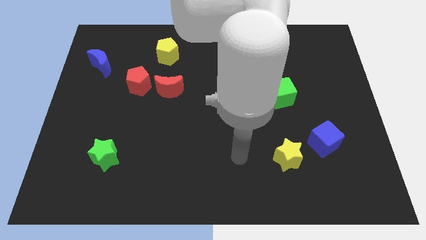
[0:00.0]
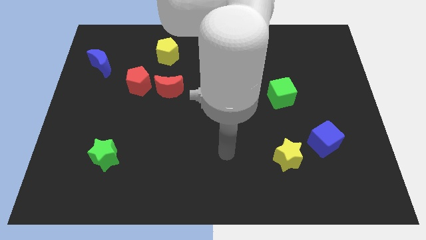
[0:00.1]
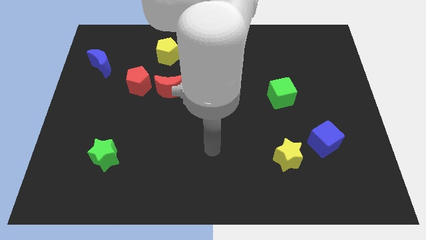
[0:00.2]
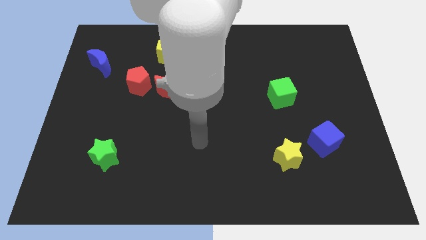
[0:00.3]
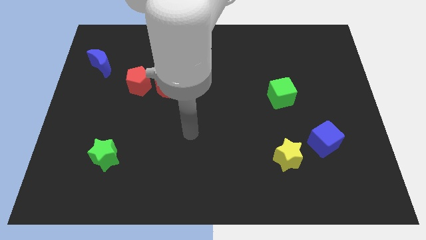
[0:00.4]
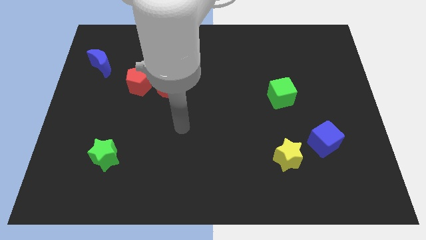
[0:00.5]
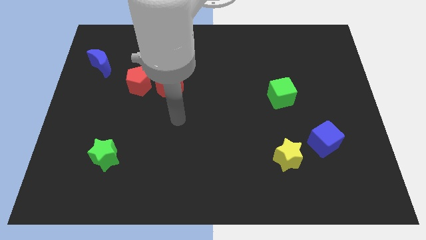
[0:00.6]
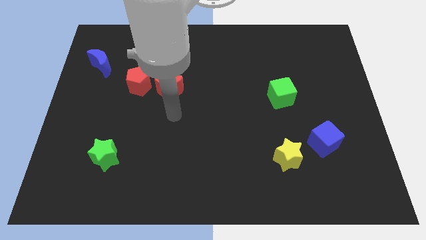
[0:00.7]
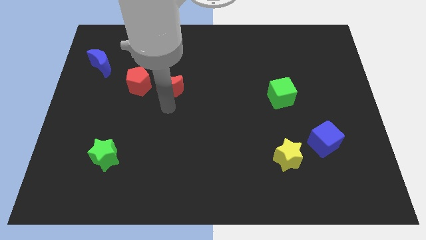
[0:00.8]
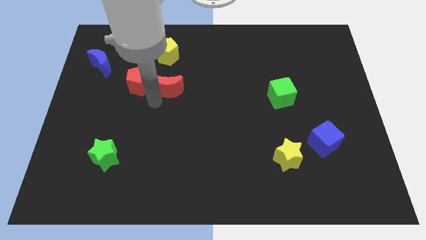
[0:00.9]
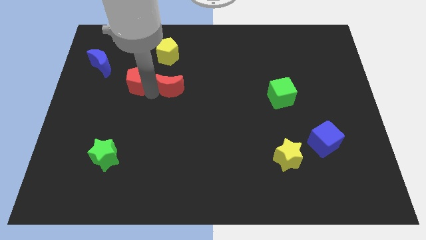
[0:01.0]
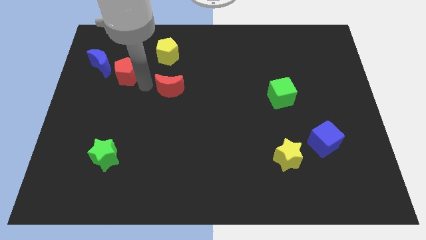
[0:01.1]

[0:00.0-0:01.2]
separate the red moon from the red pentagon

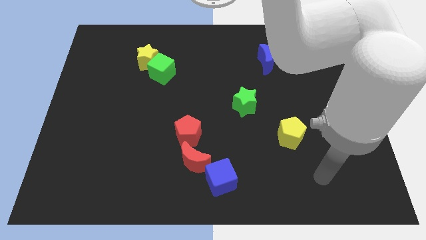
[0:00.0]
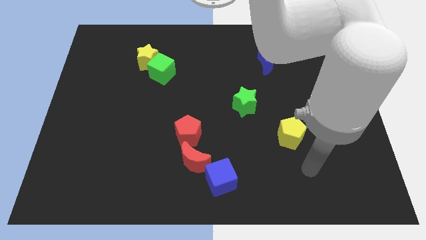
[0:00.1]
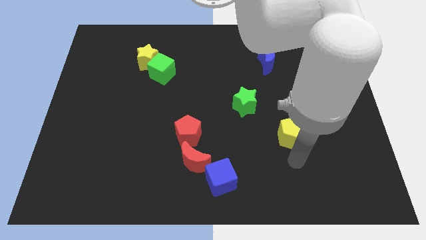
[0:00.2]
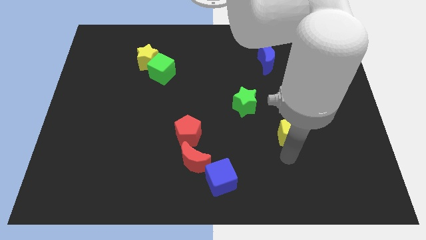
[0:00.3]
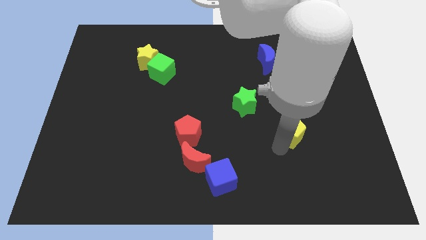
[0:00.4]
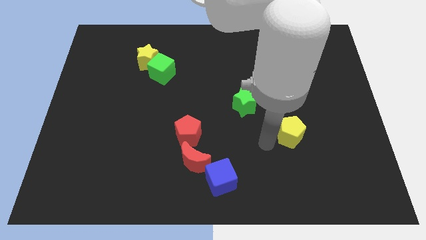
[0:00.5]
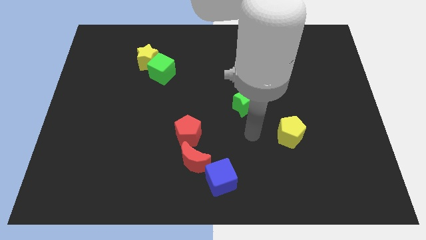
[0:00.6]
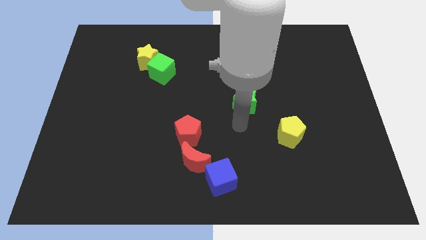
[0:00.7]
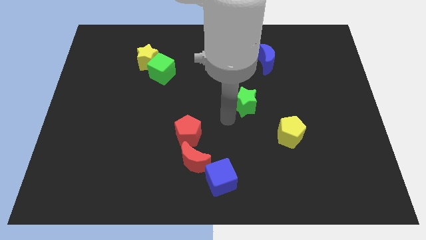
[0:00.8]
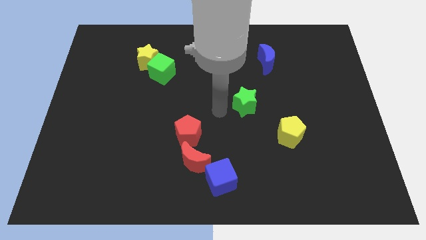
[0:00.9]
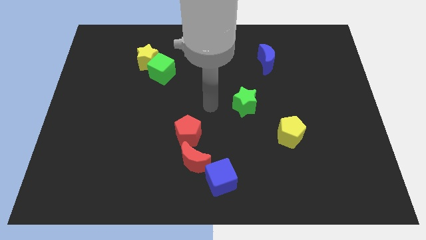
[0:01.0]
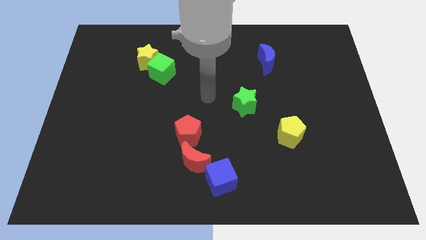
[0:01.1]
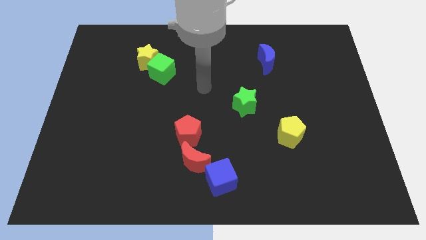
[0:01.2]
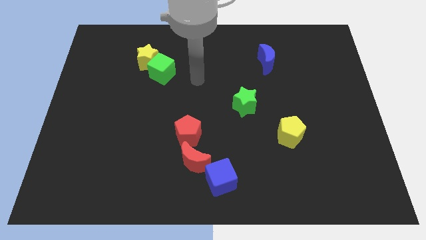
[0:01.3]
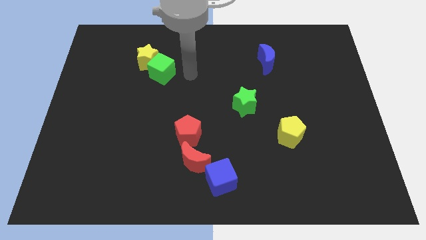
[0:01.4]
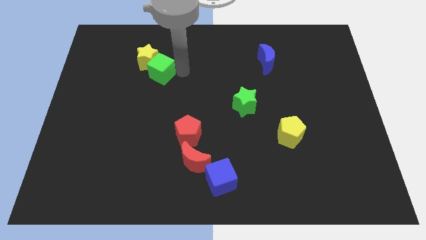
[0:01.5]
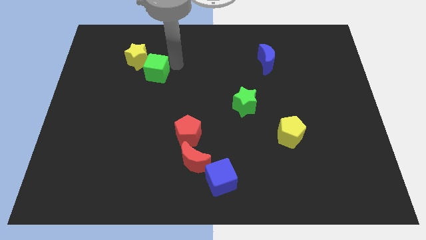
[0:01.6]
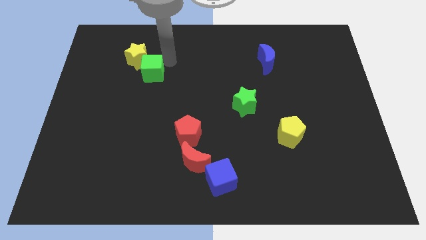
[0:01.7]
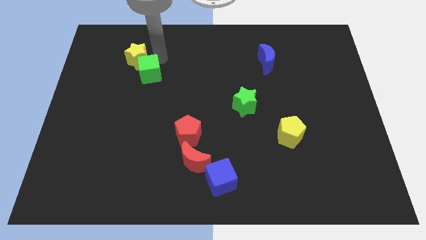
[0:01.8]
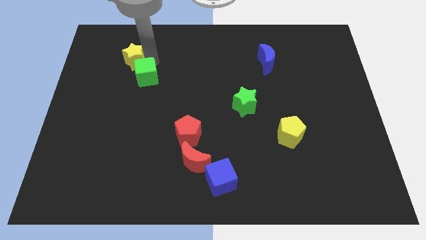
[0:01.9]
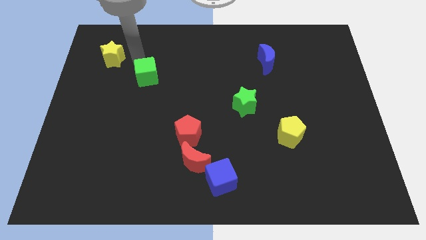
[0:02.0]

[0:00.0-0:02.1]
pull the green cube apart from the yellow star

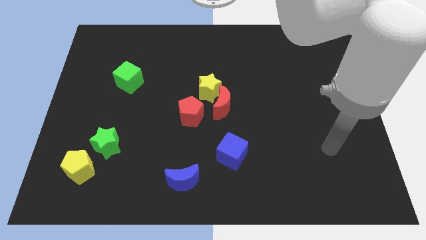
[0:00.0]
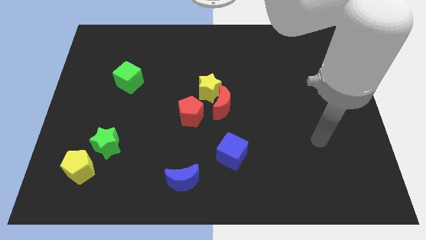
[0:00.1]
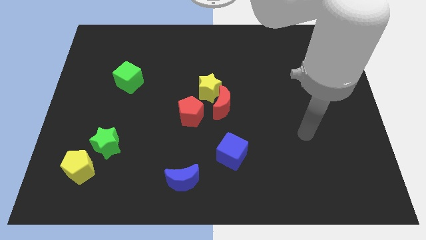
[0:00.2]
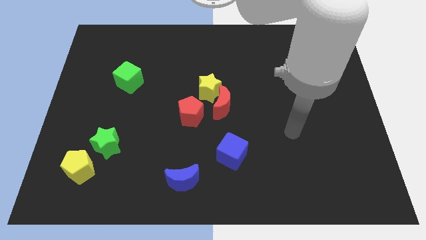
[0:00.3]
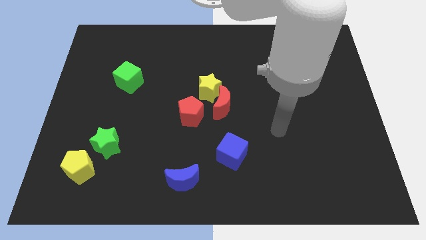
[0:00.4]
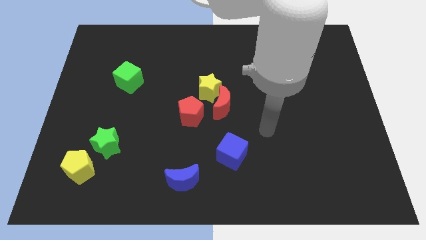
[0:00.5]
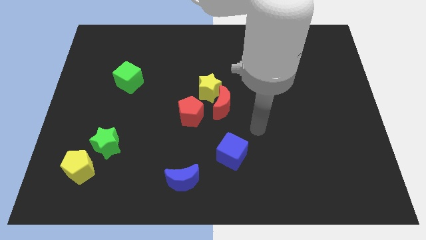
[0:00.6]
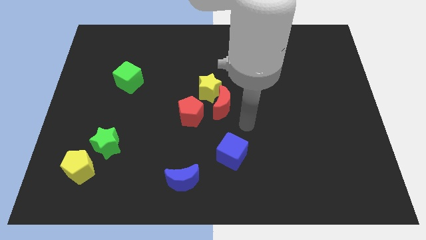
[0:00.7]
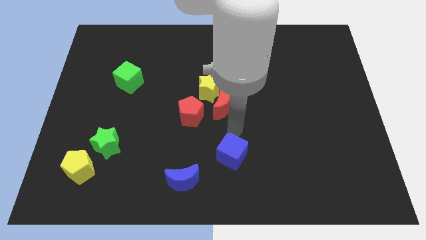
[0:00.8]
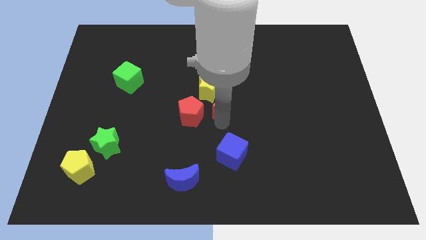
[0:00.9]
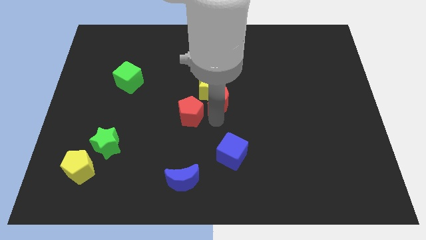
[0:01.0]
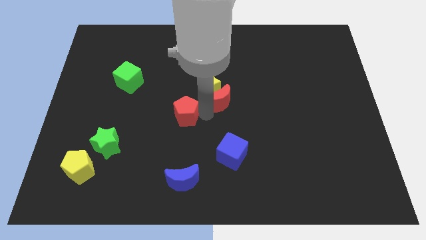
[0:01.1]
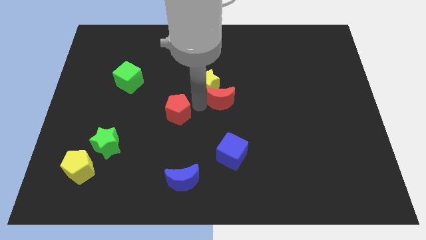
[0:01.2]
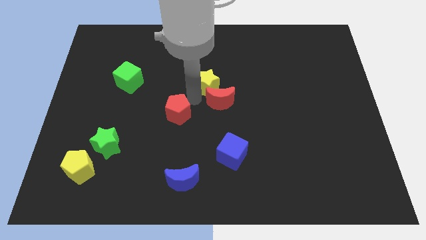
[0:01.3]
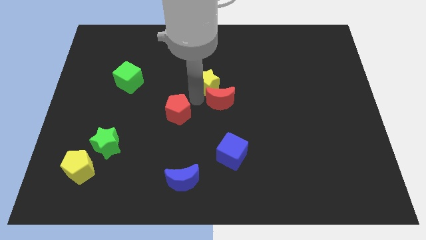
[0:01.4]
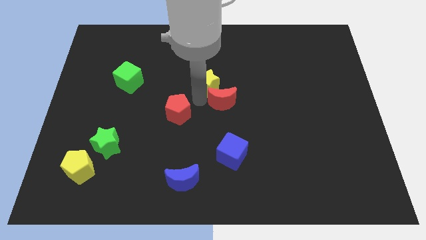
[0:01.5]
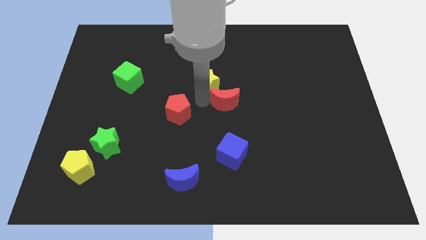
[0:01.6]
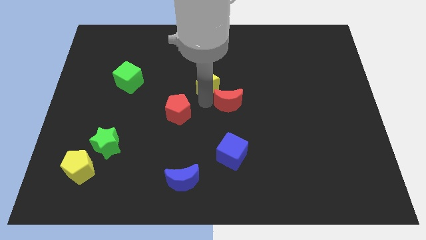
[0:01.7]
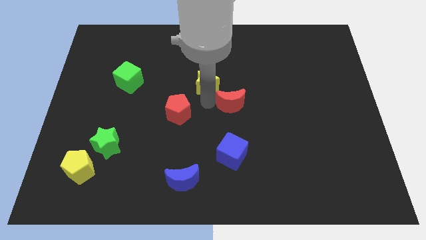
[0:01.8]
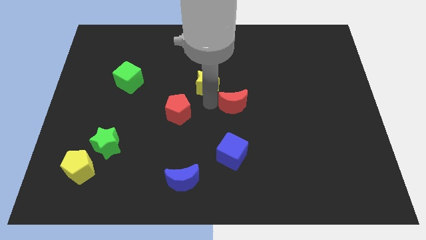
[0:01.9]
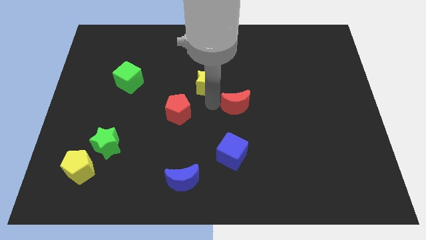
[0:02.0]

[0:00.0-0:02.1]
pull the red moon apart from the yellow star and red pentagon

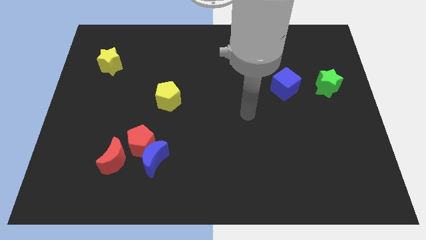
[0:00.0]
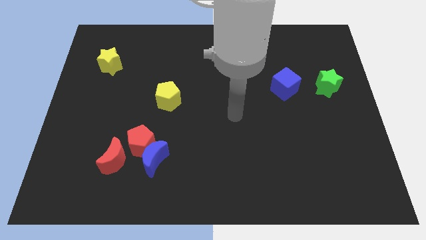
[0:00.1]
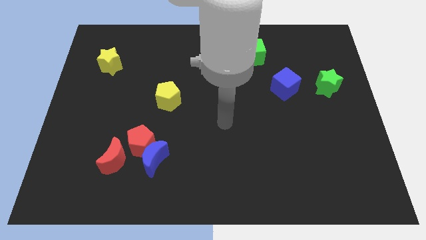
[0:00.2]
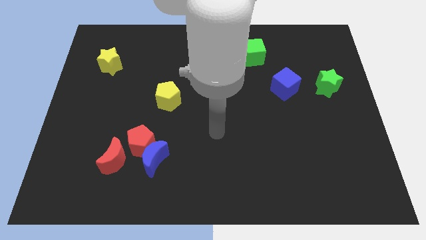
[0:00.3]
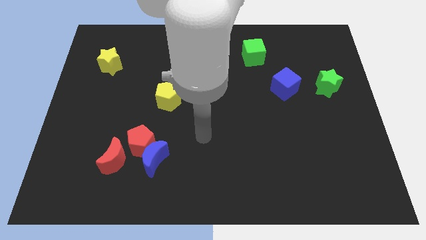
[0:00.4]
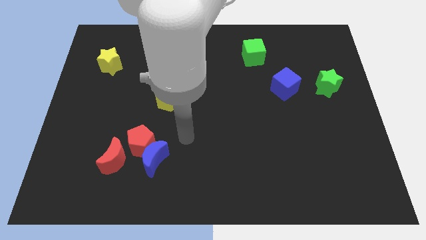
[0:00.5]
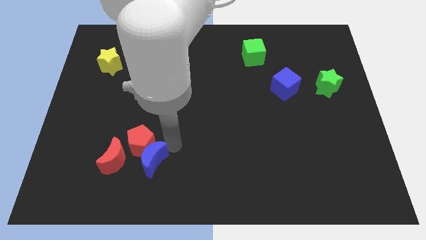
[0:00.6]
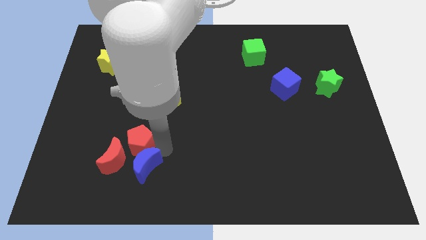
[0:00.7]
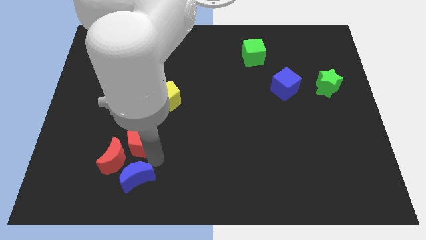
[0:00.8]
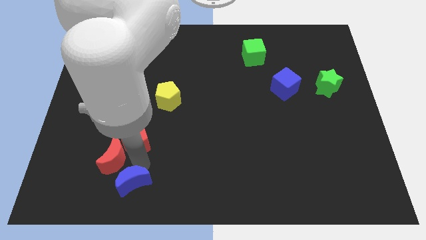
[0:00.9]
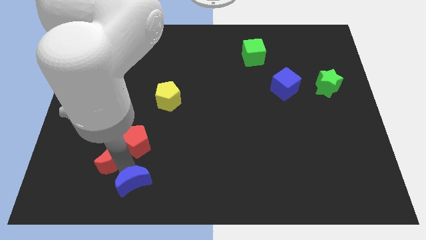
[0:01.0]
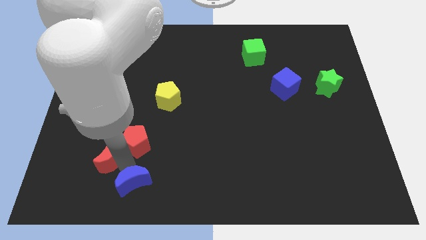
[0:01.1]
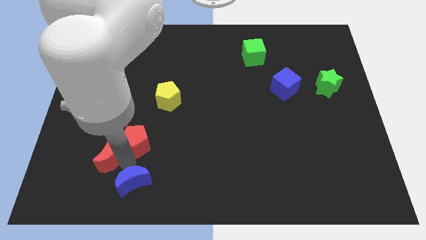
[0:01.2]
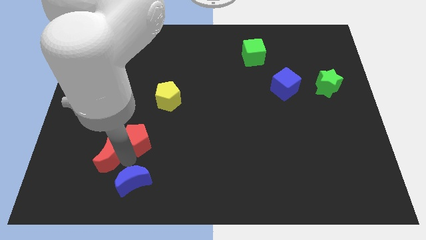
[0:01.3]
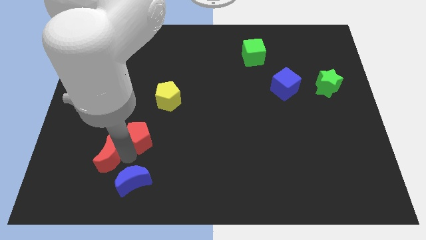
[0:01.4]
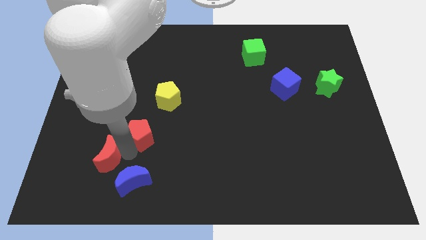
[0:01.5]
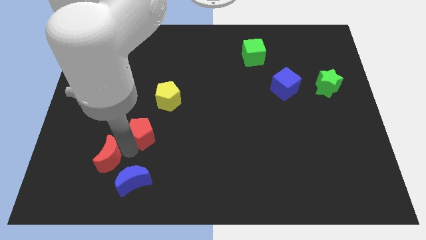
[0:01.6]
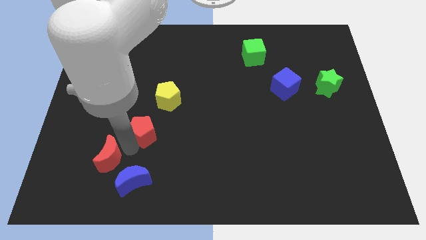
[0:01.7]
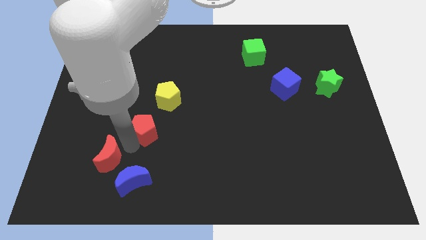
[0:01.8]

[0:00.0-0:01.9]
move the red pentagon away from the blue moon and red moon

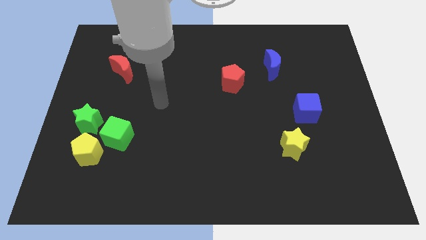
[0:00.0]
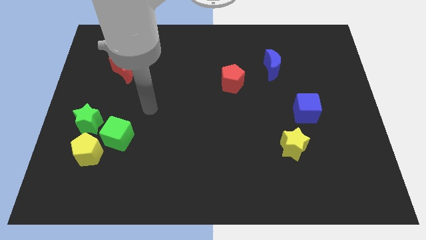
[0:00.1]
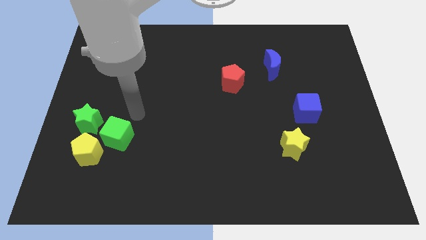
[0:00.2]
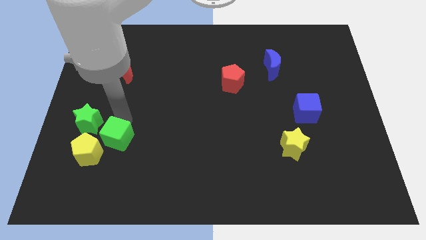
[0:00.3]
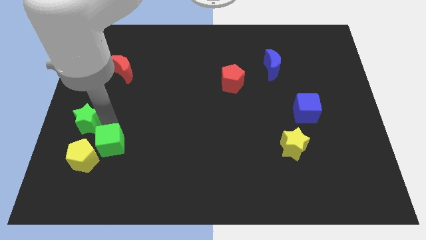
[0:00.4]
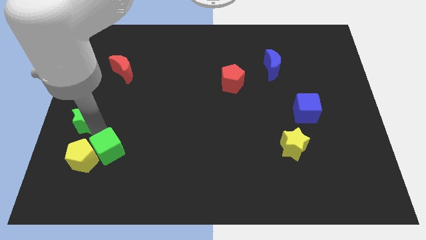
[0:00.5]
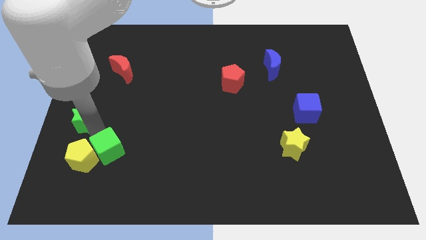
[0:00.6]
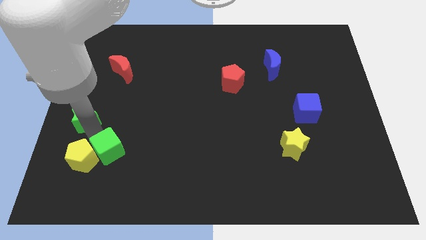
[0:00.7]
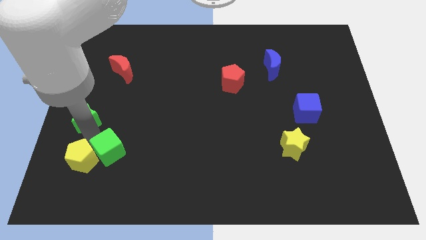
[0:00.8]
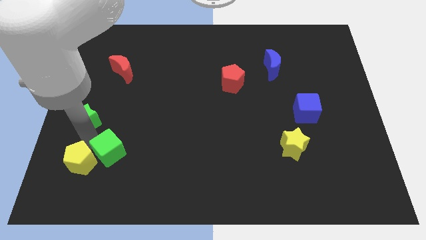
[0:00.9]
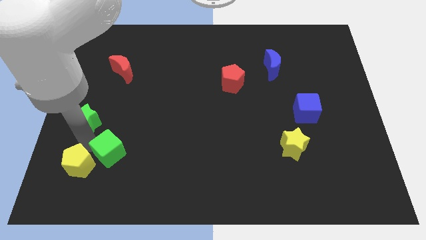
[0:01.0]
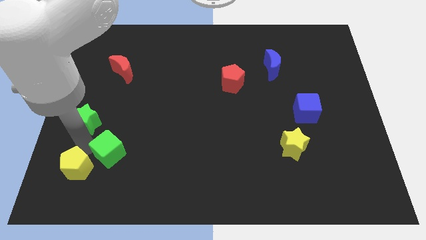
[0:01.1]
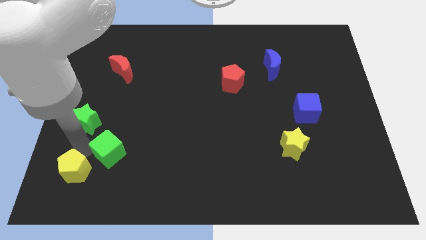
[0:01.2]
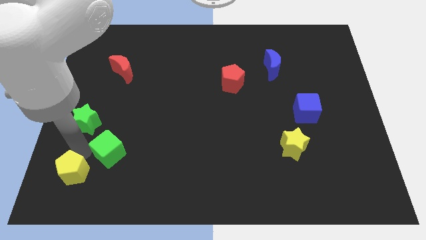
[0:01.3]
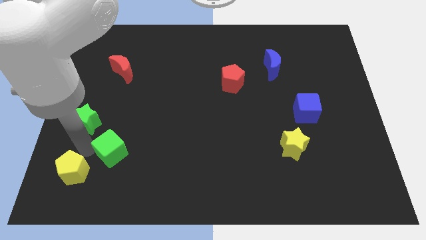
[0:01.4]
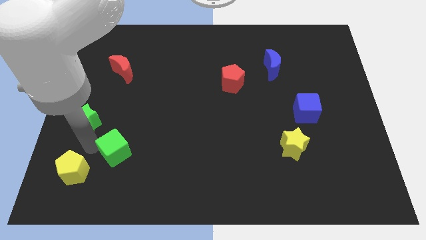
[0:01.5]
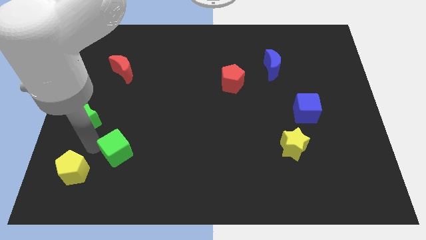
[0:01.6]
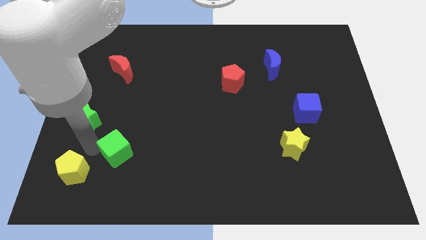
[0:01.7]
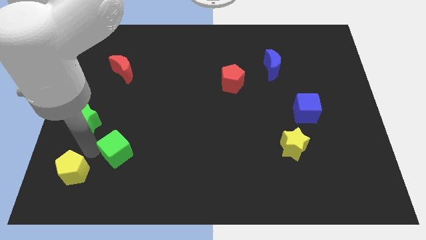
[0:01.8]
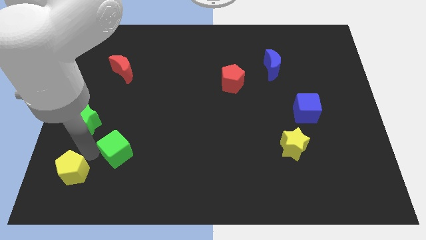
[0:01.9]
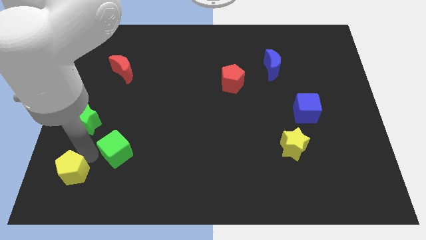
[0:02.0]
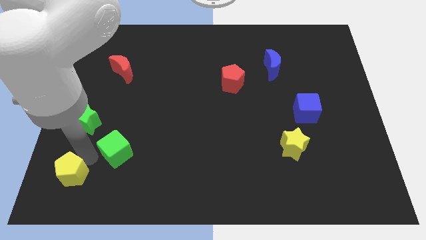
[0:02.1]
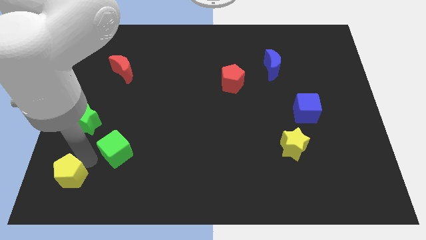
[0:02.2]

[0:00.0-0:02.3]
move the yellow pentagon away from the green cube and green star
